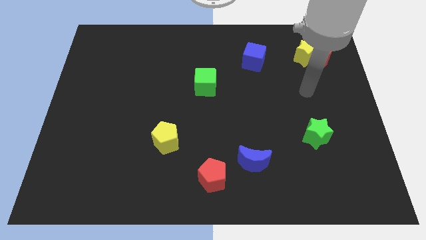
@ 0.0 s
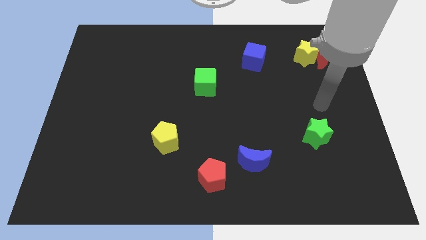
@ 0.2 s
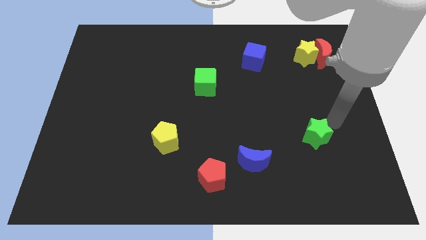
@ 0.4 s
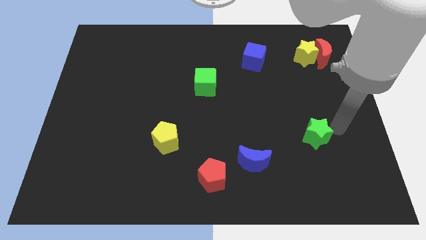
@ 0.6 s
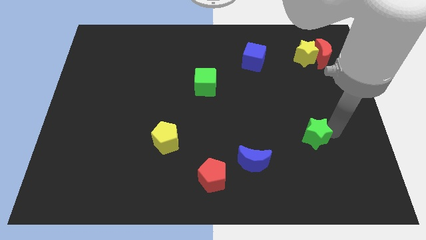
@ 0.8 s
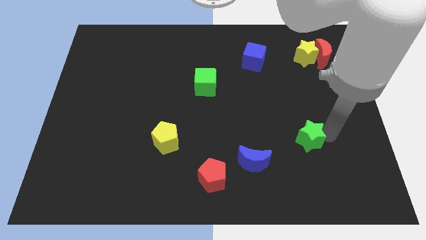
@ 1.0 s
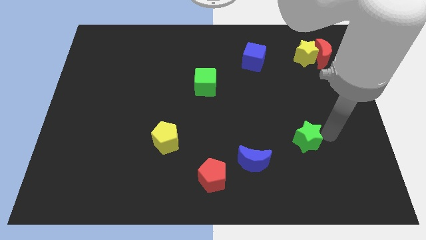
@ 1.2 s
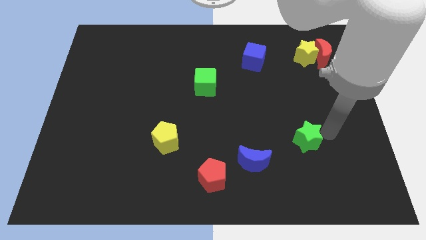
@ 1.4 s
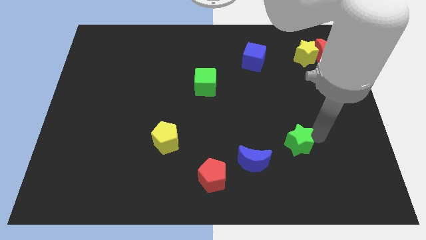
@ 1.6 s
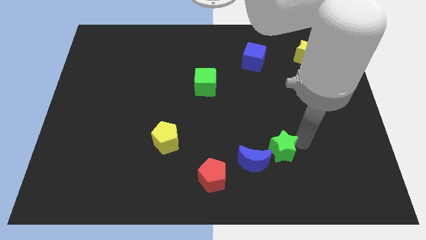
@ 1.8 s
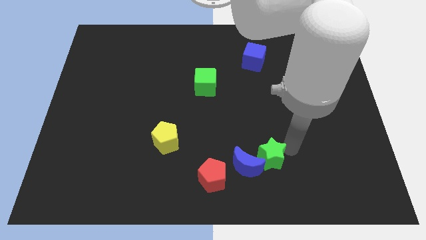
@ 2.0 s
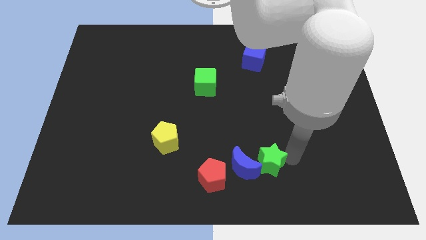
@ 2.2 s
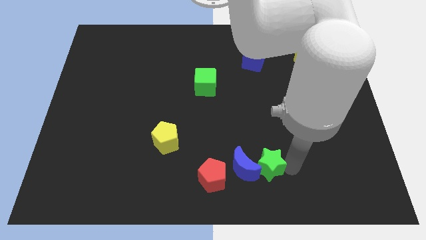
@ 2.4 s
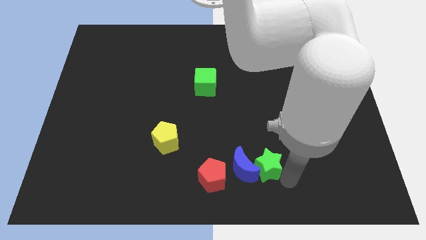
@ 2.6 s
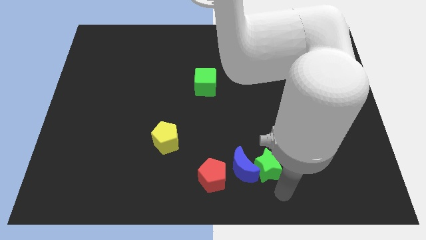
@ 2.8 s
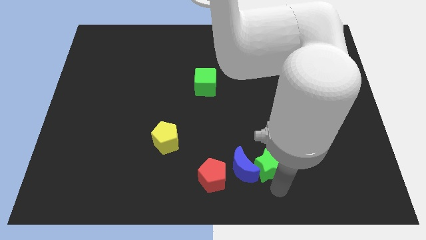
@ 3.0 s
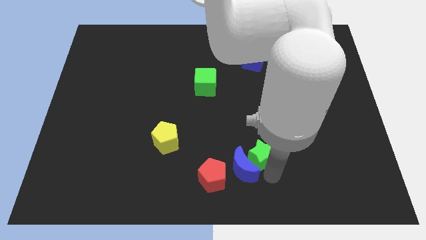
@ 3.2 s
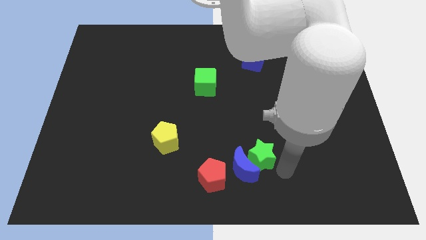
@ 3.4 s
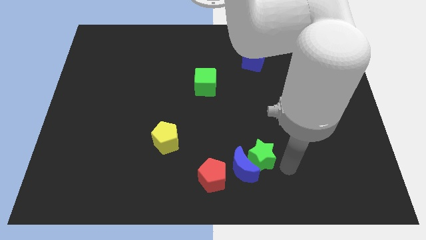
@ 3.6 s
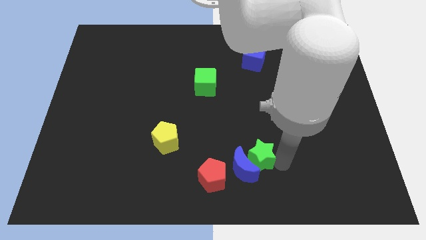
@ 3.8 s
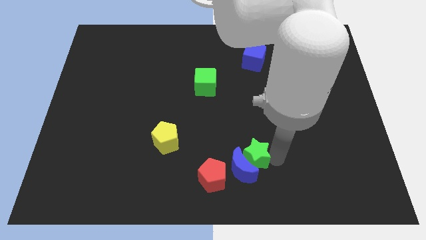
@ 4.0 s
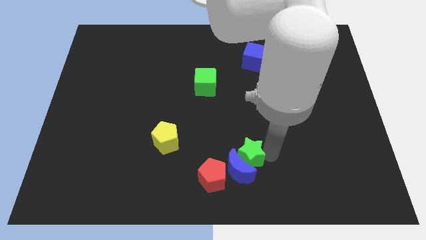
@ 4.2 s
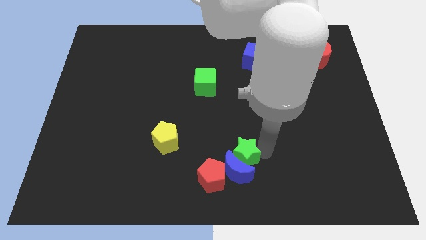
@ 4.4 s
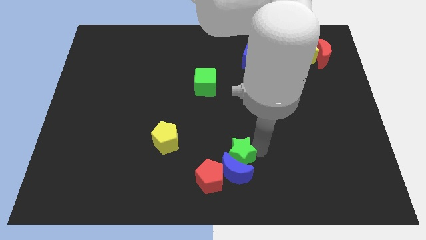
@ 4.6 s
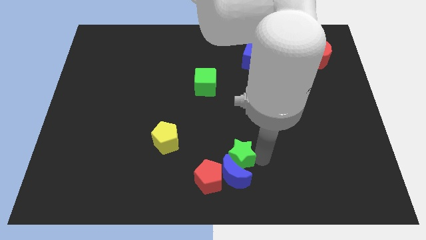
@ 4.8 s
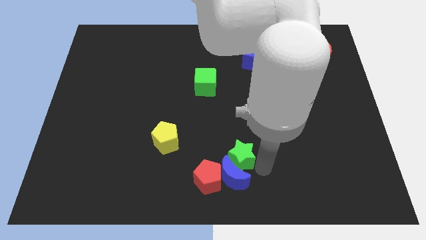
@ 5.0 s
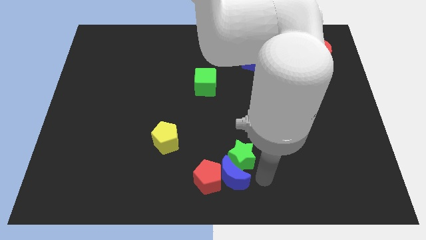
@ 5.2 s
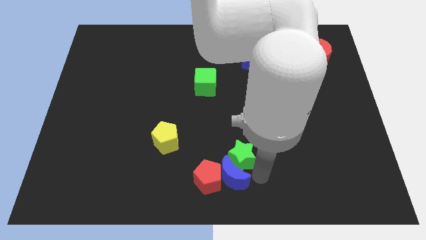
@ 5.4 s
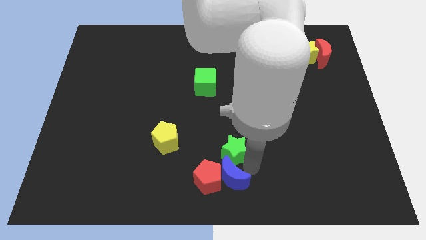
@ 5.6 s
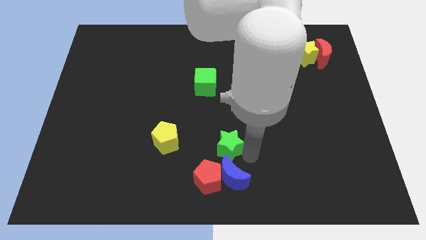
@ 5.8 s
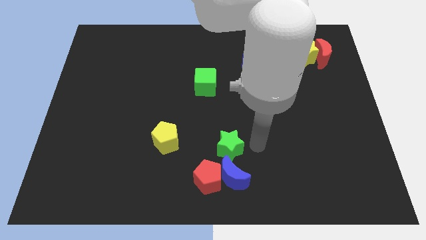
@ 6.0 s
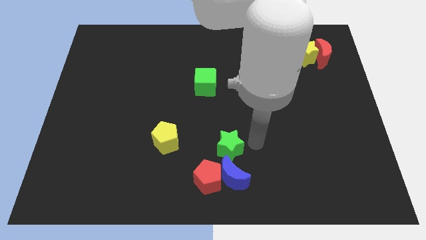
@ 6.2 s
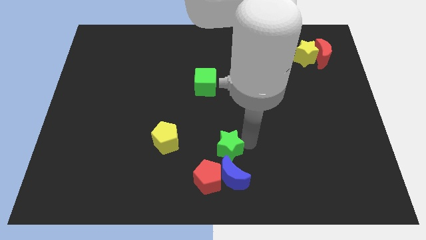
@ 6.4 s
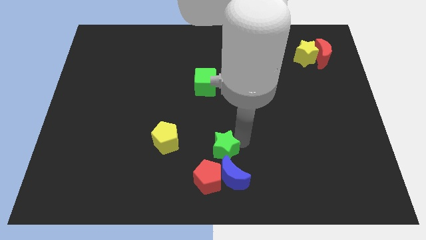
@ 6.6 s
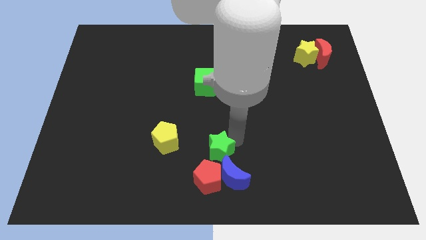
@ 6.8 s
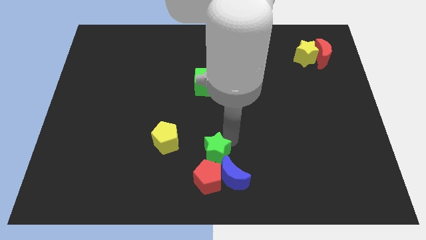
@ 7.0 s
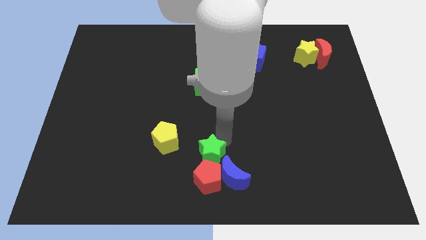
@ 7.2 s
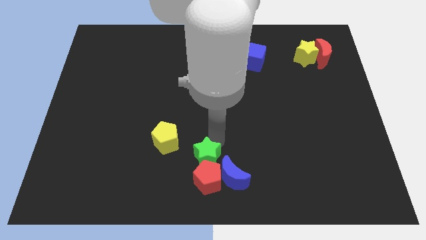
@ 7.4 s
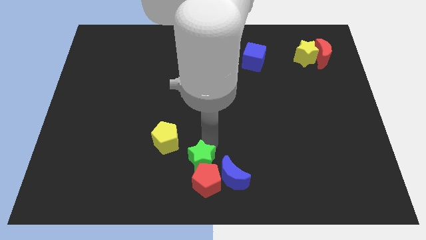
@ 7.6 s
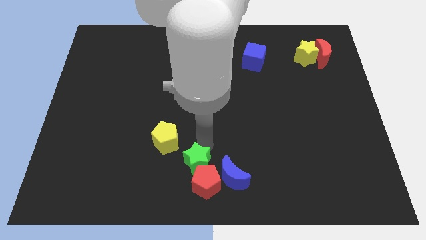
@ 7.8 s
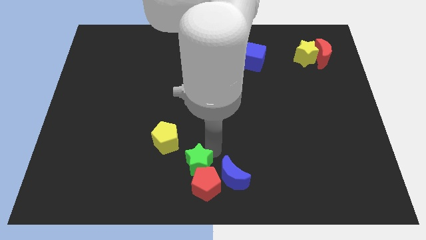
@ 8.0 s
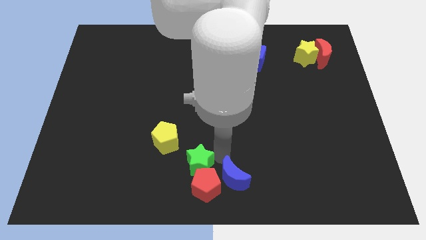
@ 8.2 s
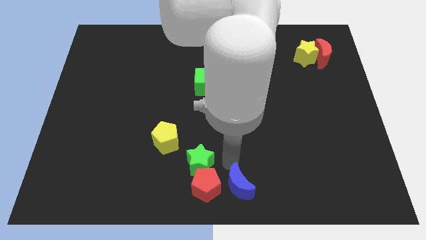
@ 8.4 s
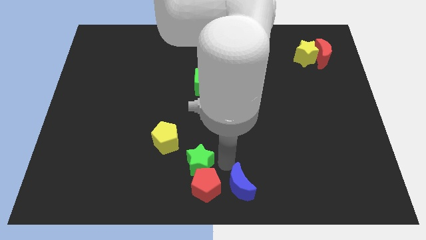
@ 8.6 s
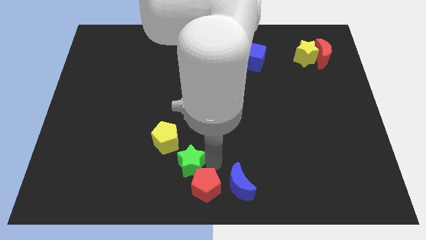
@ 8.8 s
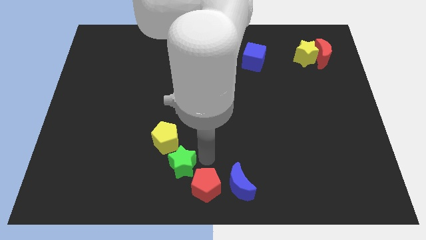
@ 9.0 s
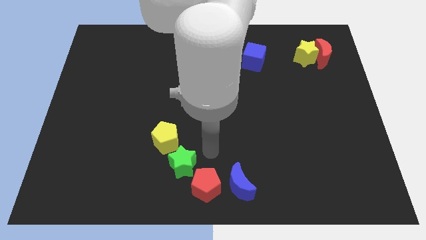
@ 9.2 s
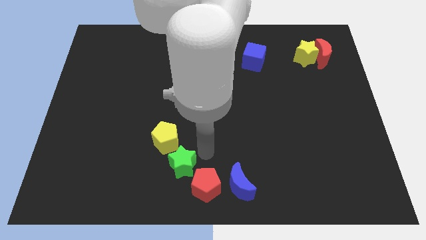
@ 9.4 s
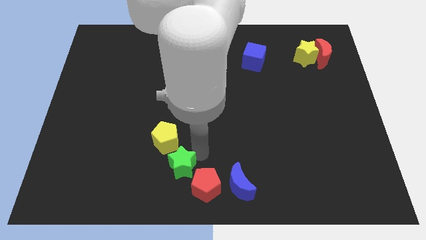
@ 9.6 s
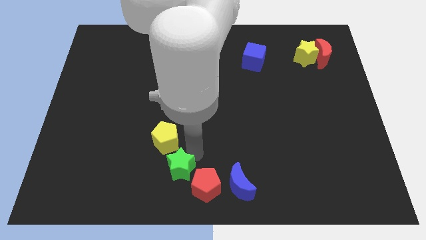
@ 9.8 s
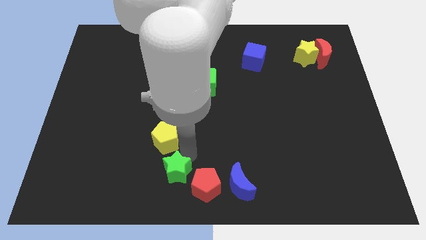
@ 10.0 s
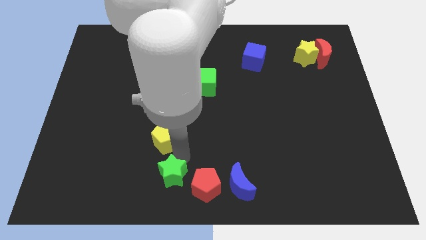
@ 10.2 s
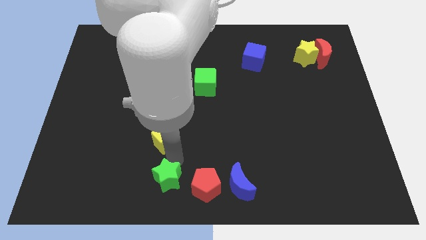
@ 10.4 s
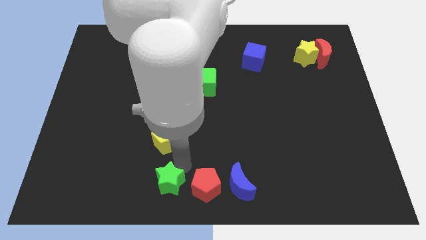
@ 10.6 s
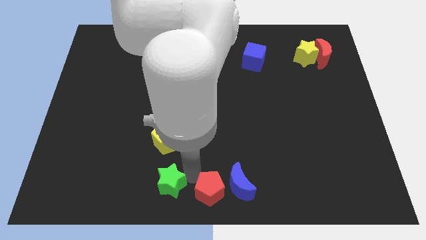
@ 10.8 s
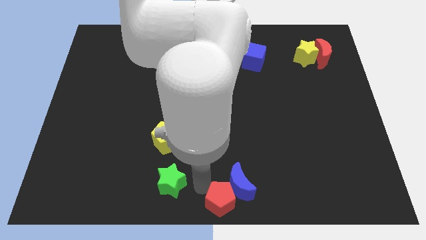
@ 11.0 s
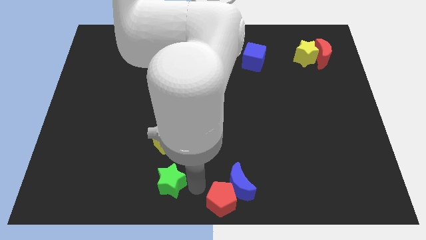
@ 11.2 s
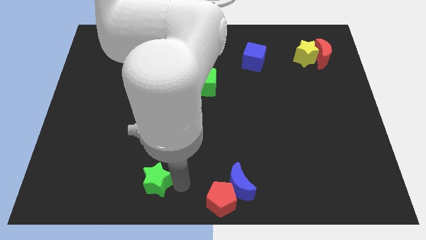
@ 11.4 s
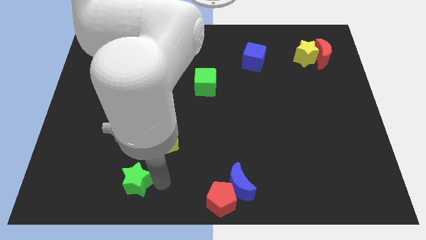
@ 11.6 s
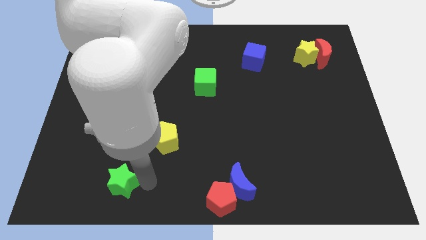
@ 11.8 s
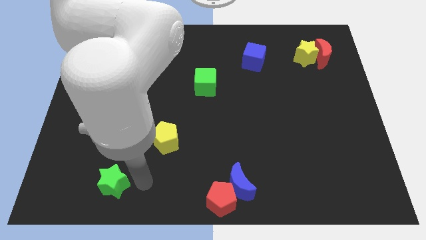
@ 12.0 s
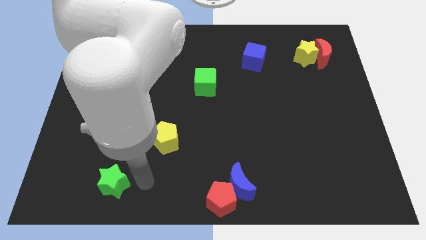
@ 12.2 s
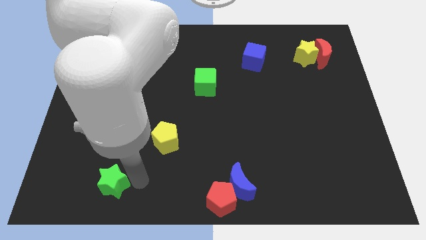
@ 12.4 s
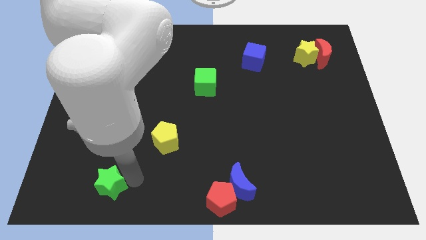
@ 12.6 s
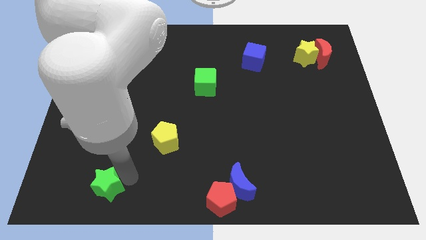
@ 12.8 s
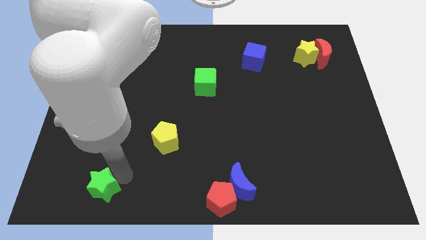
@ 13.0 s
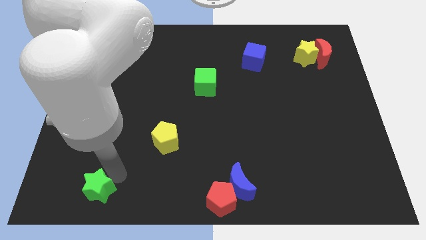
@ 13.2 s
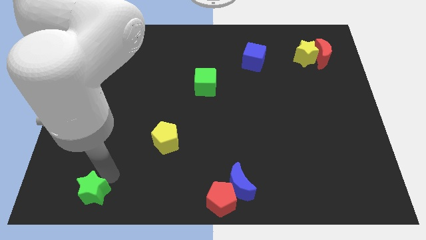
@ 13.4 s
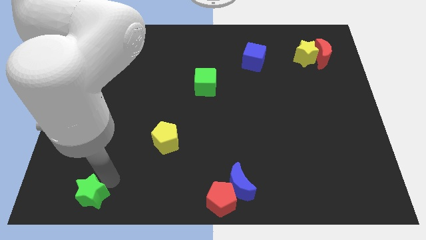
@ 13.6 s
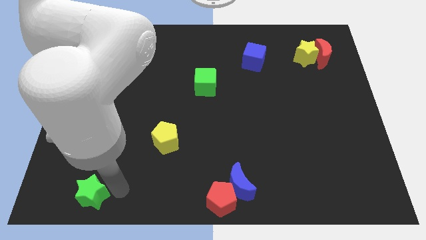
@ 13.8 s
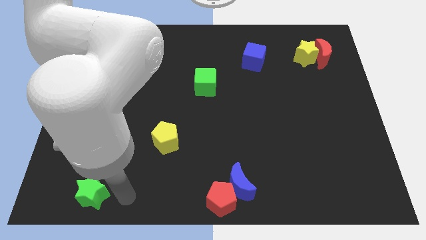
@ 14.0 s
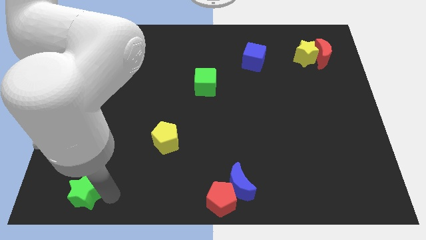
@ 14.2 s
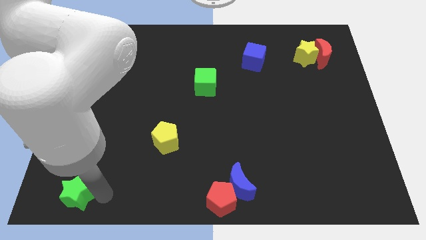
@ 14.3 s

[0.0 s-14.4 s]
move the green star to the bottom left of the board
